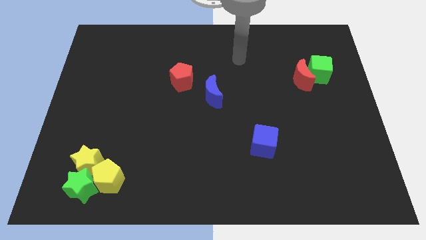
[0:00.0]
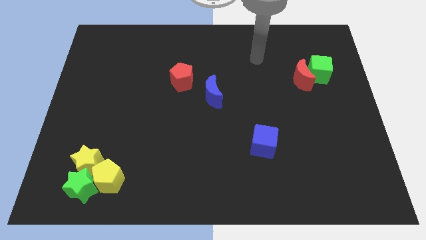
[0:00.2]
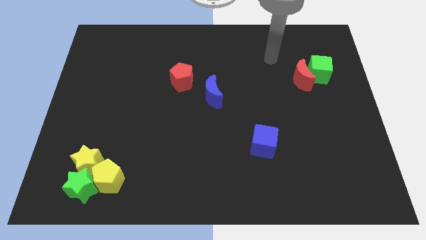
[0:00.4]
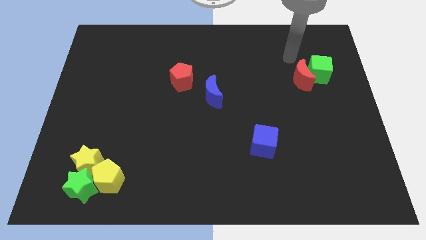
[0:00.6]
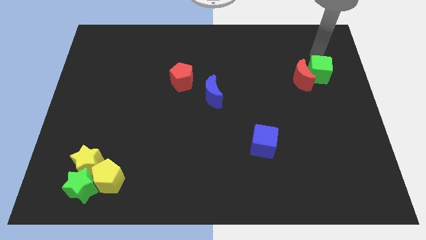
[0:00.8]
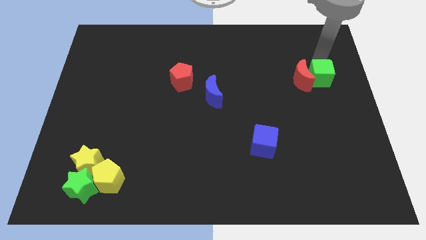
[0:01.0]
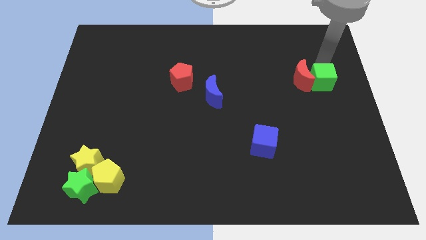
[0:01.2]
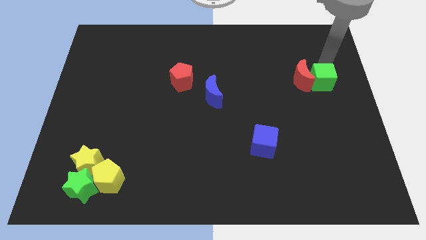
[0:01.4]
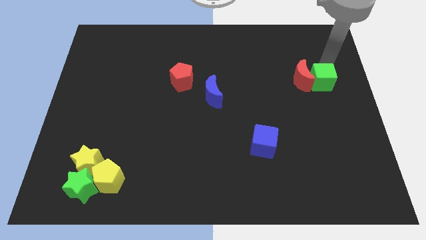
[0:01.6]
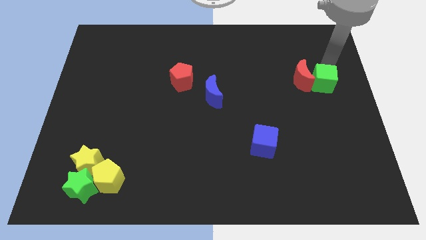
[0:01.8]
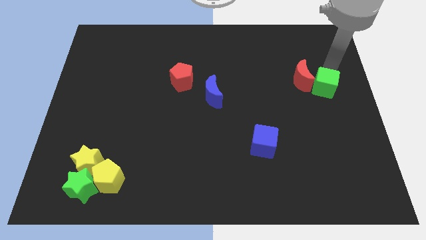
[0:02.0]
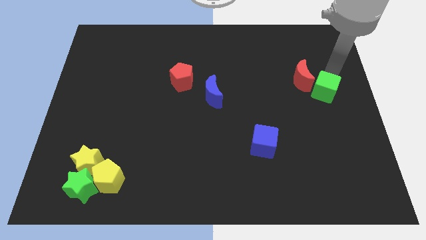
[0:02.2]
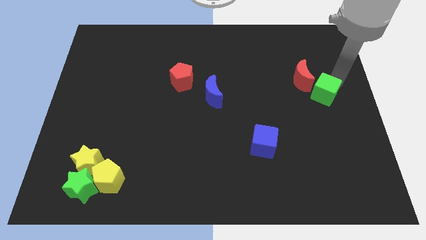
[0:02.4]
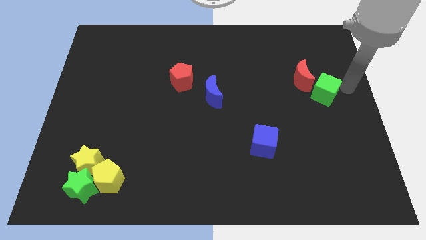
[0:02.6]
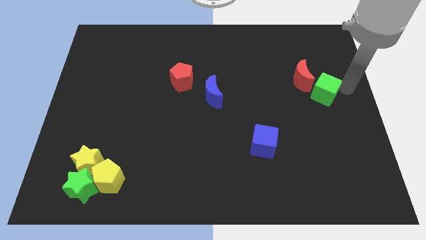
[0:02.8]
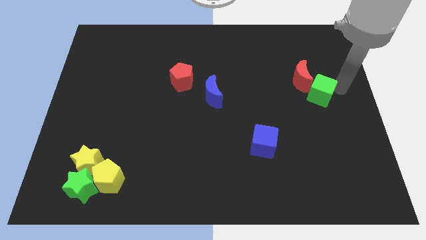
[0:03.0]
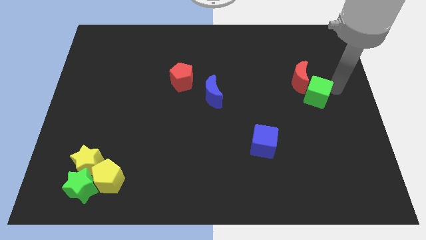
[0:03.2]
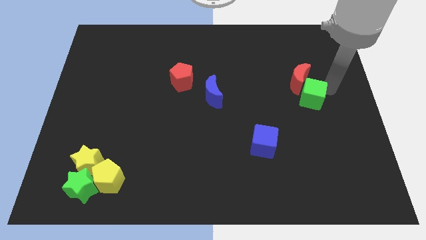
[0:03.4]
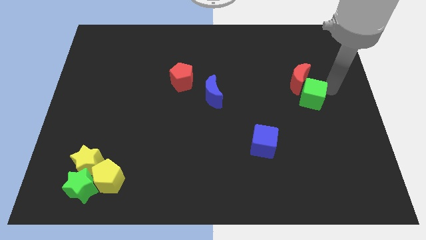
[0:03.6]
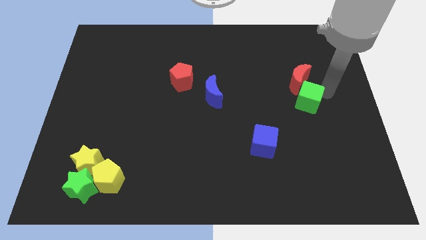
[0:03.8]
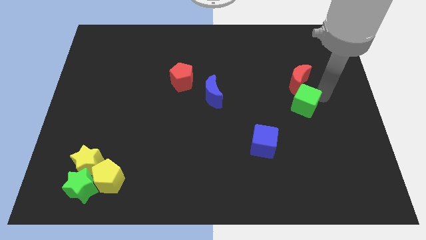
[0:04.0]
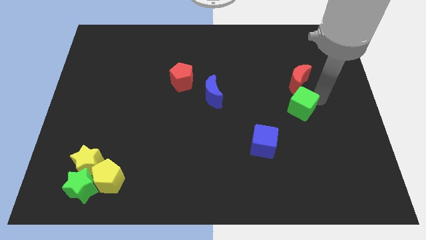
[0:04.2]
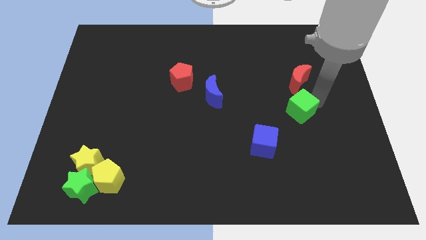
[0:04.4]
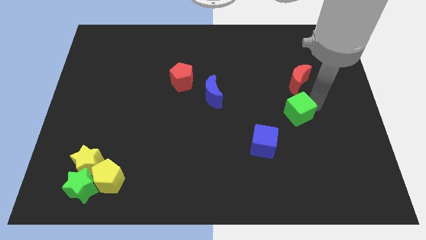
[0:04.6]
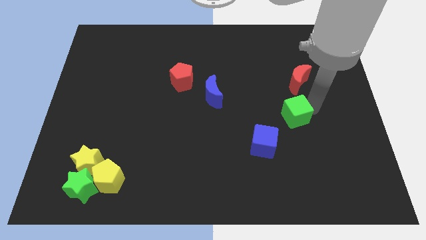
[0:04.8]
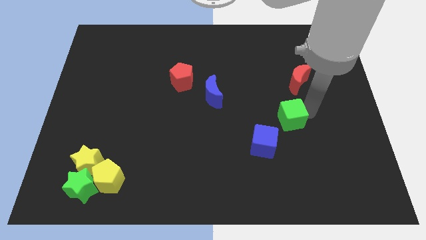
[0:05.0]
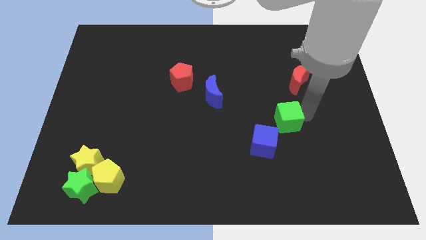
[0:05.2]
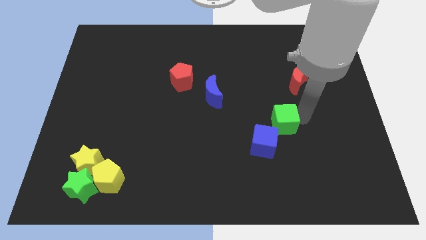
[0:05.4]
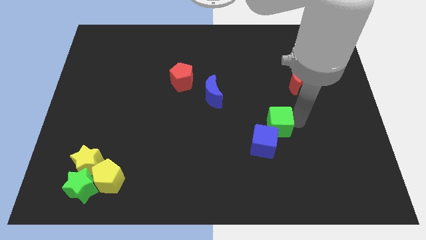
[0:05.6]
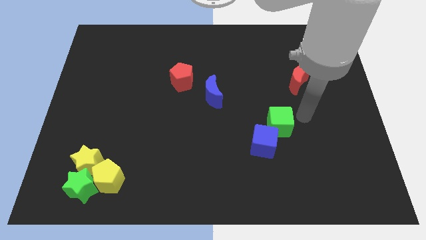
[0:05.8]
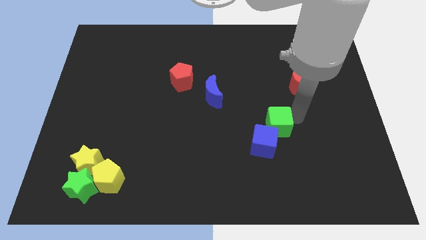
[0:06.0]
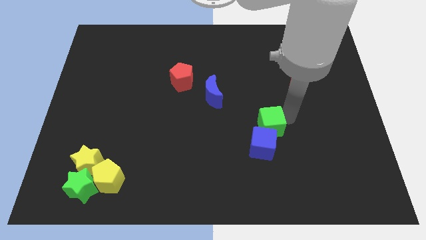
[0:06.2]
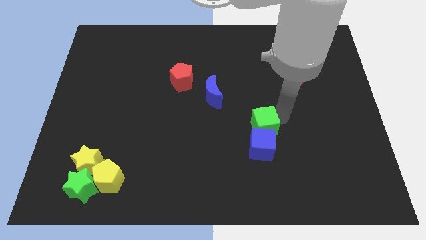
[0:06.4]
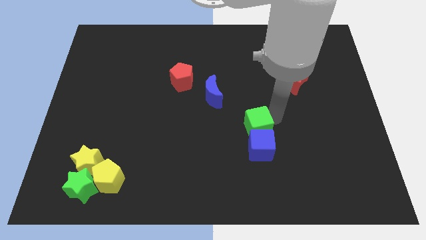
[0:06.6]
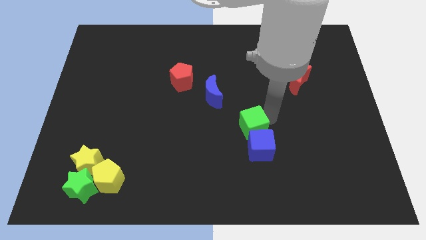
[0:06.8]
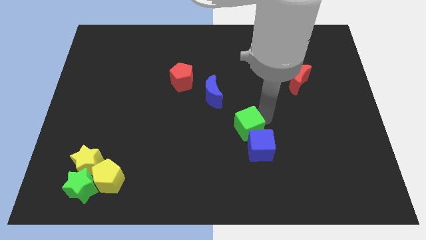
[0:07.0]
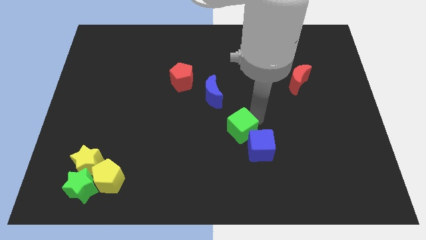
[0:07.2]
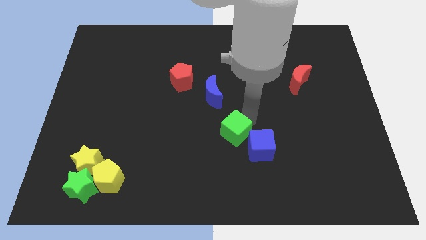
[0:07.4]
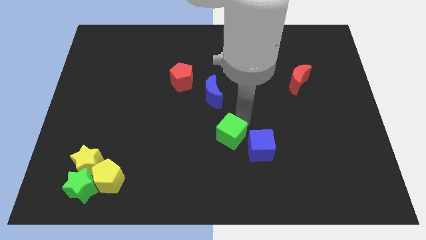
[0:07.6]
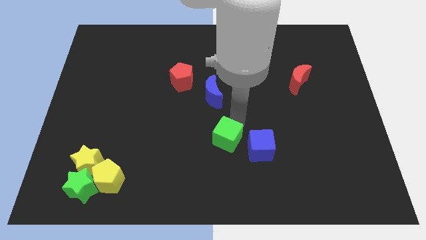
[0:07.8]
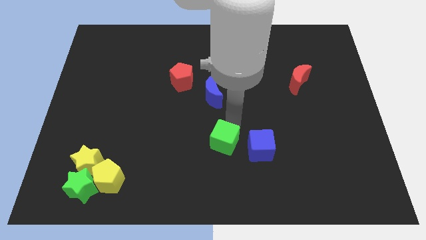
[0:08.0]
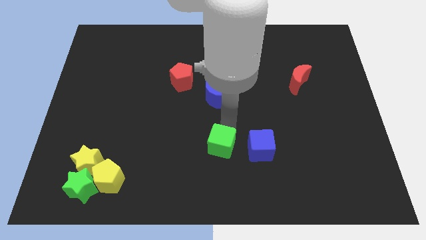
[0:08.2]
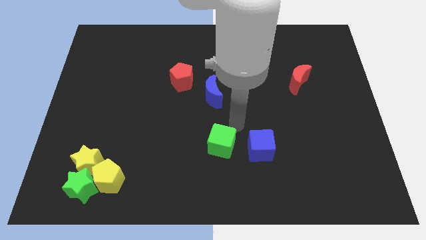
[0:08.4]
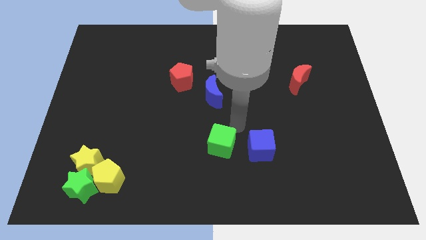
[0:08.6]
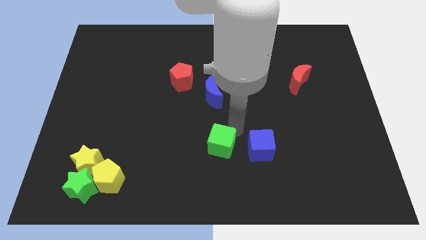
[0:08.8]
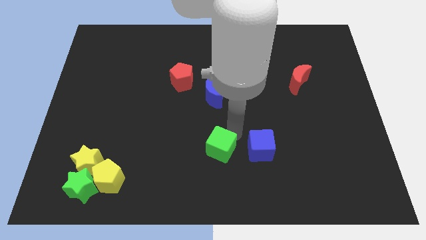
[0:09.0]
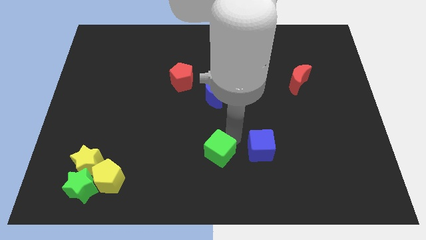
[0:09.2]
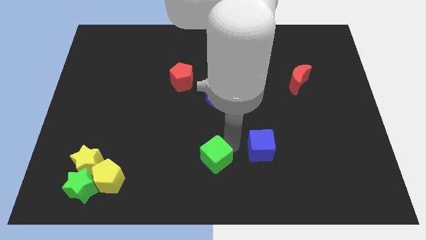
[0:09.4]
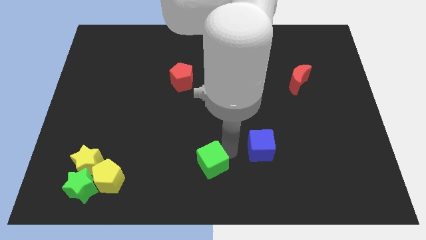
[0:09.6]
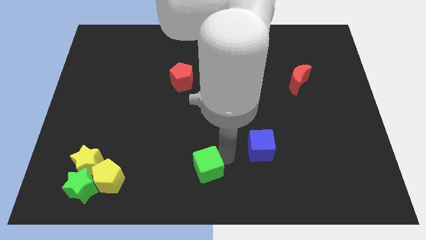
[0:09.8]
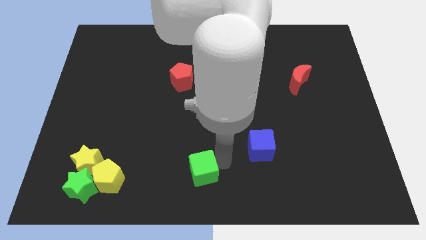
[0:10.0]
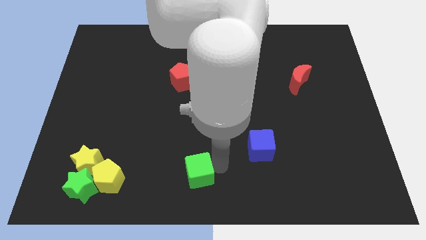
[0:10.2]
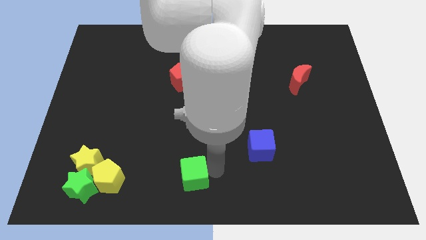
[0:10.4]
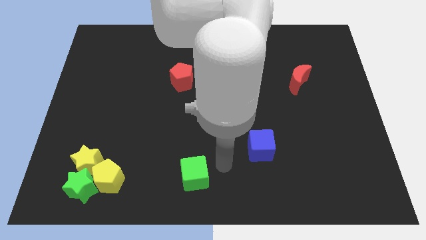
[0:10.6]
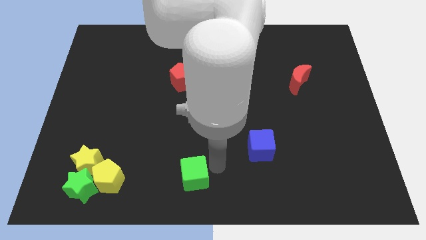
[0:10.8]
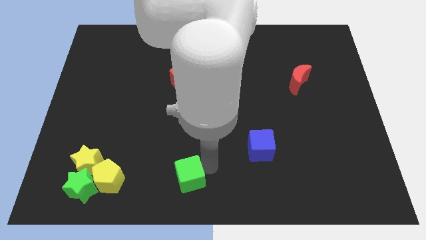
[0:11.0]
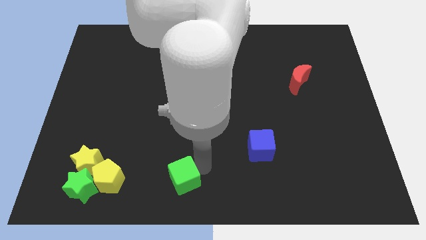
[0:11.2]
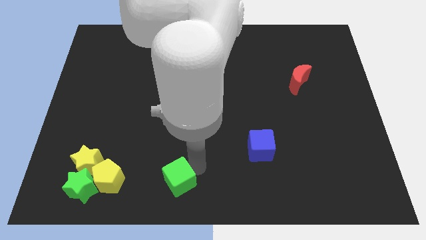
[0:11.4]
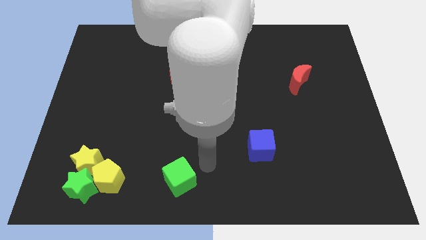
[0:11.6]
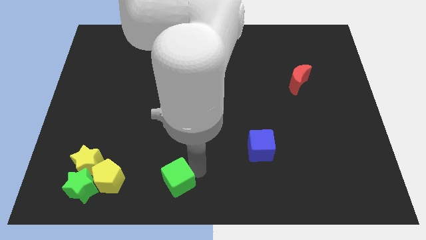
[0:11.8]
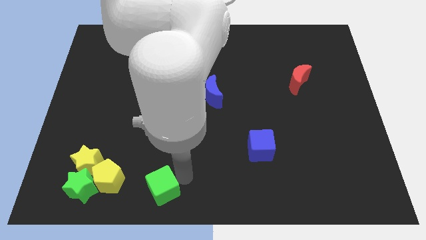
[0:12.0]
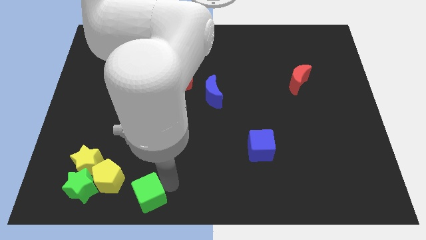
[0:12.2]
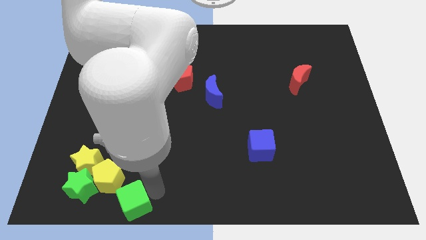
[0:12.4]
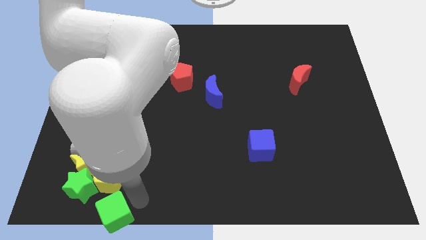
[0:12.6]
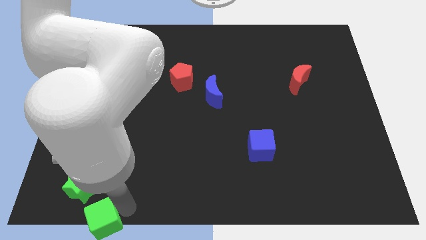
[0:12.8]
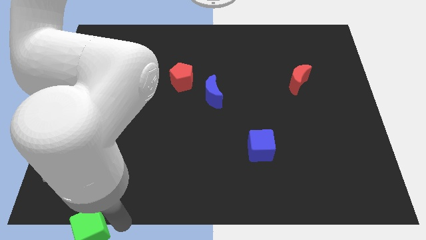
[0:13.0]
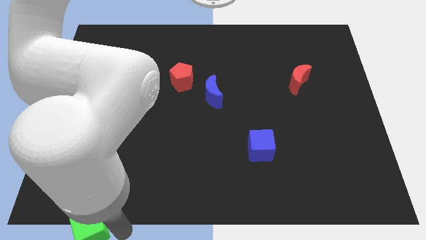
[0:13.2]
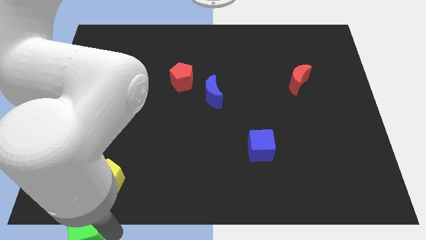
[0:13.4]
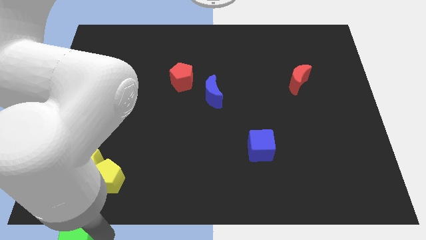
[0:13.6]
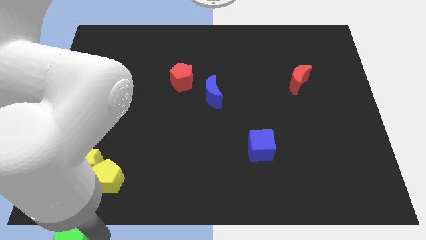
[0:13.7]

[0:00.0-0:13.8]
move the green cube to the lower left corner
